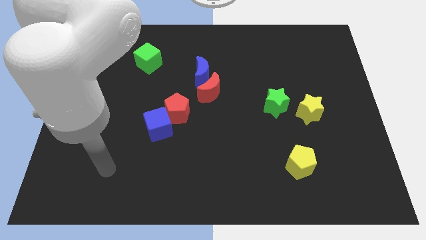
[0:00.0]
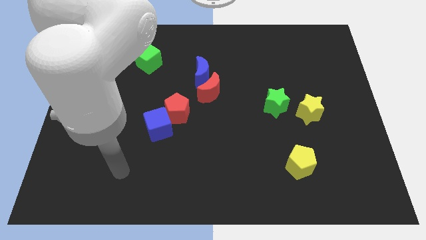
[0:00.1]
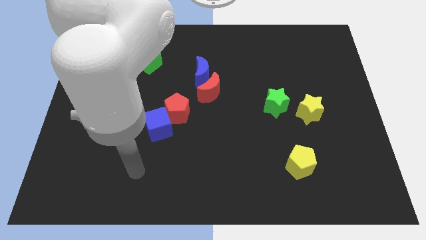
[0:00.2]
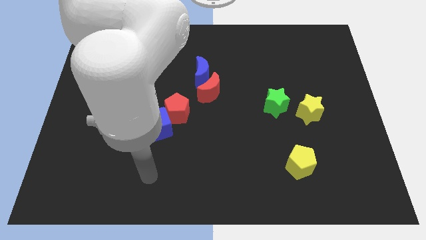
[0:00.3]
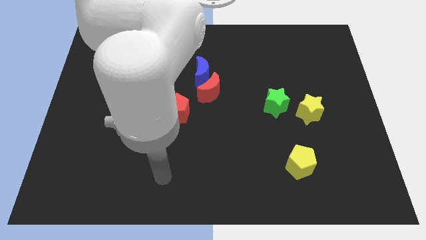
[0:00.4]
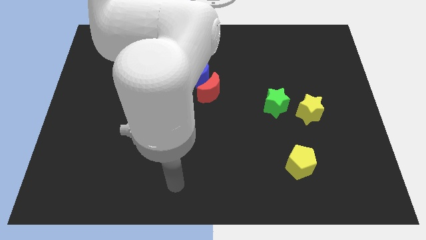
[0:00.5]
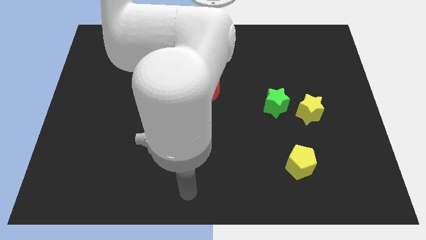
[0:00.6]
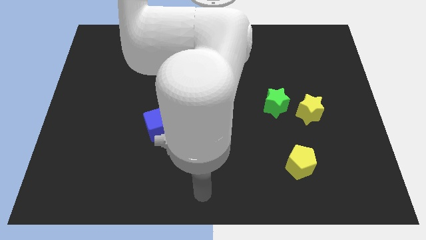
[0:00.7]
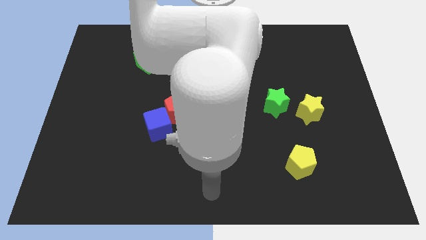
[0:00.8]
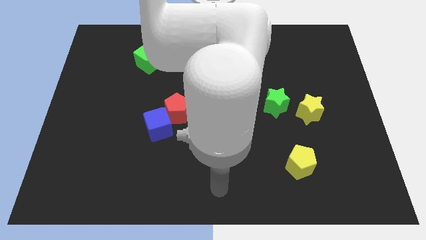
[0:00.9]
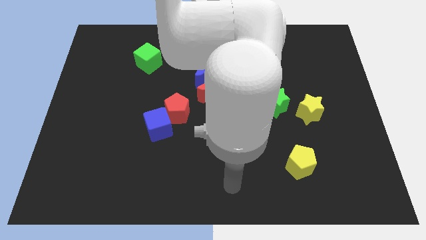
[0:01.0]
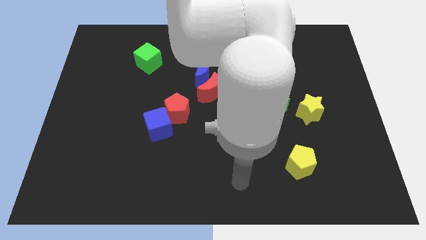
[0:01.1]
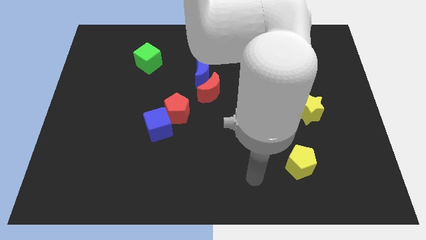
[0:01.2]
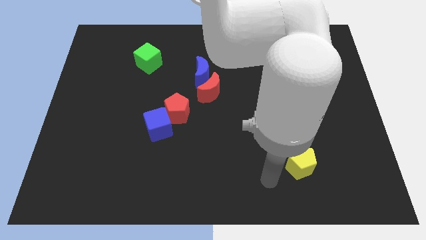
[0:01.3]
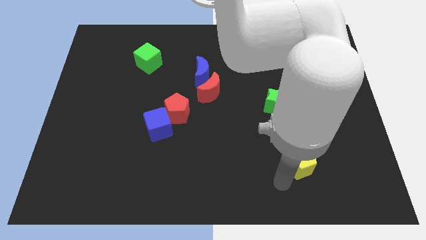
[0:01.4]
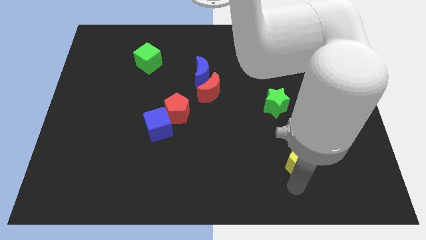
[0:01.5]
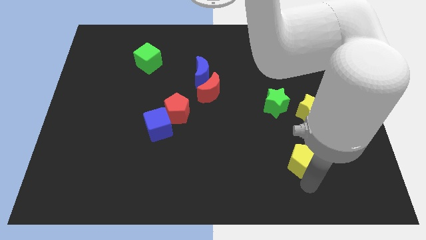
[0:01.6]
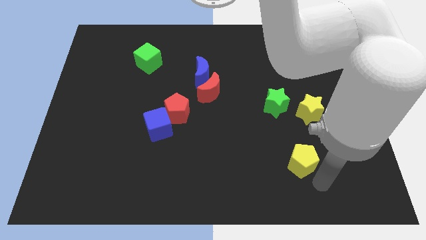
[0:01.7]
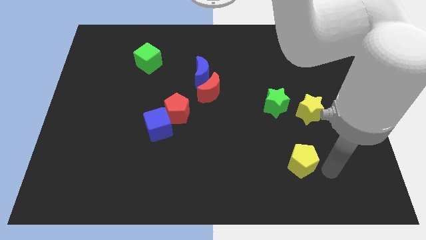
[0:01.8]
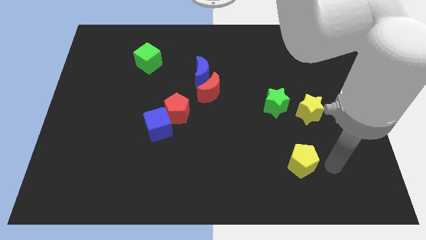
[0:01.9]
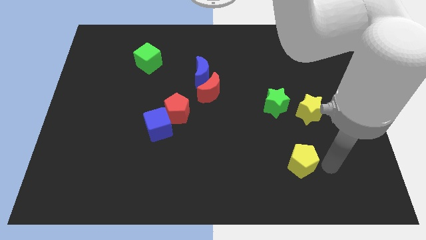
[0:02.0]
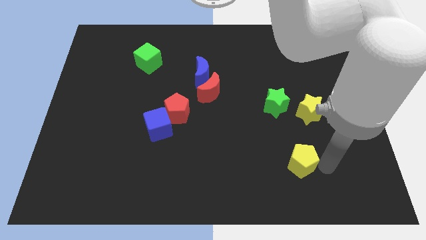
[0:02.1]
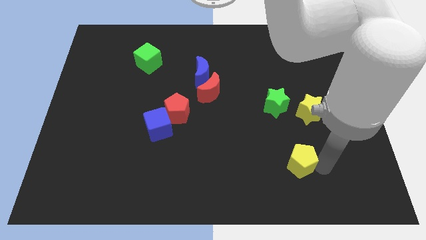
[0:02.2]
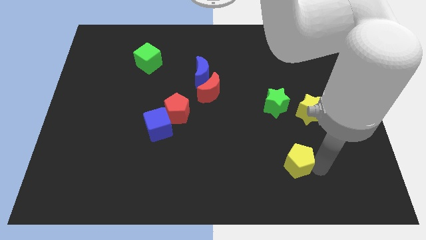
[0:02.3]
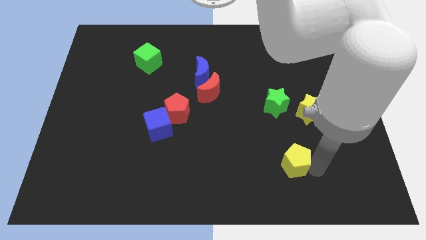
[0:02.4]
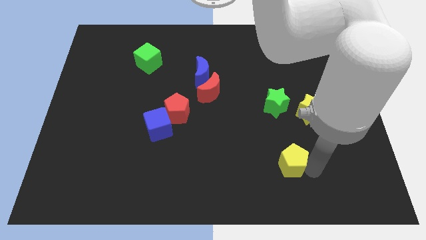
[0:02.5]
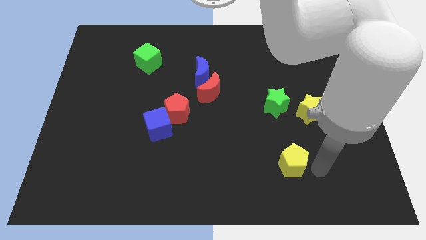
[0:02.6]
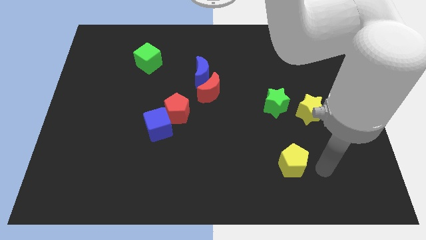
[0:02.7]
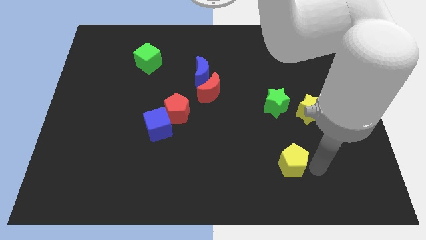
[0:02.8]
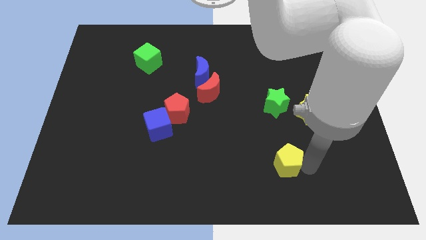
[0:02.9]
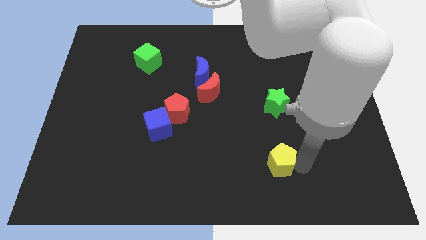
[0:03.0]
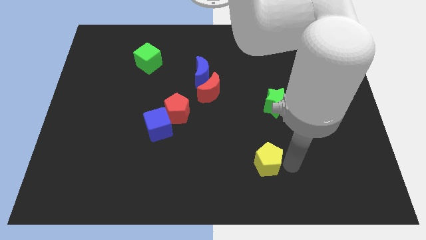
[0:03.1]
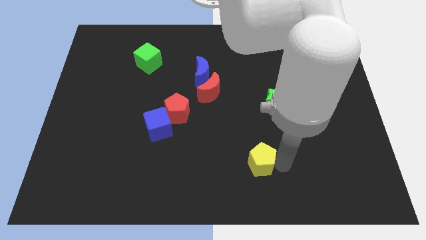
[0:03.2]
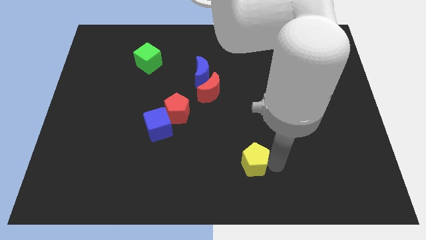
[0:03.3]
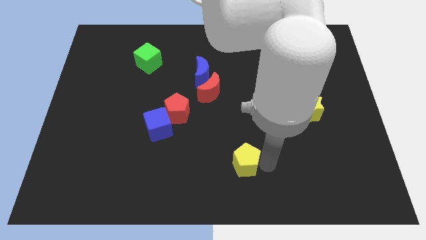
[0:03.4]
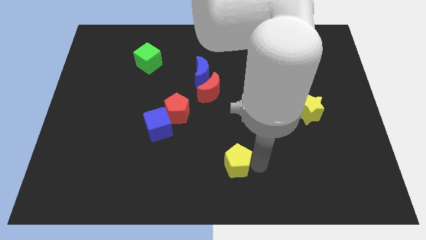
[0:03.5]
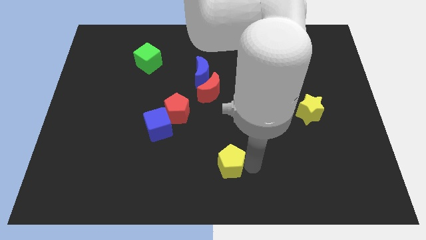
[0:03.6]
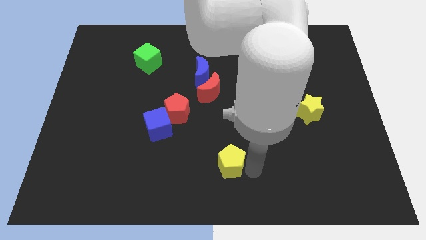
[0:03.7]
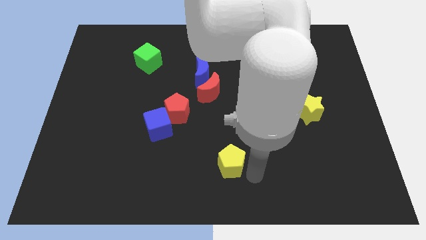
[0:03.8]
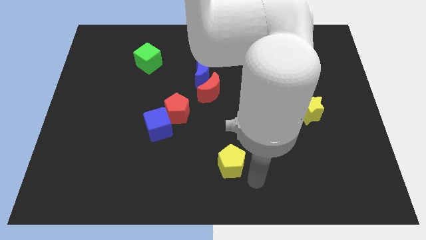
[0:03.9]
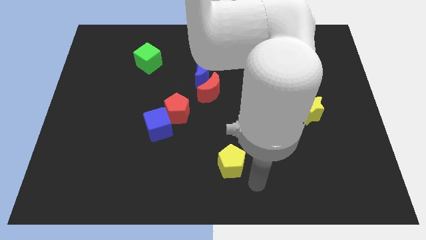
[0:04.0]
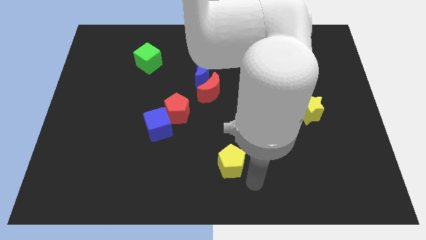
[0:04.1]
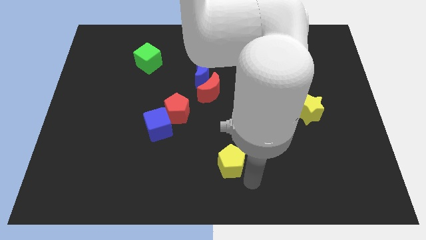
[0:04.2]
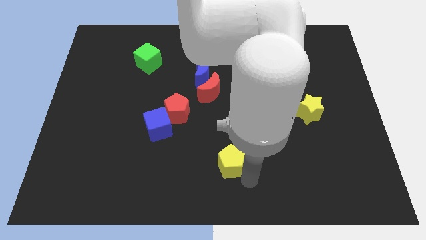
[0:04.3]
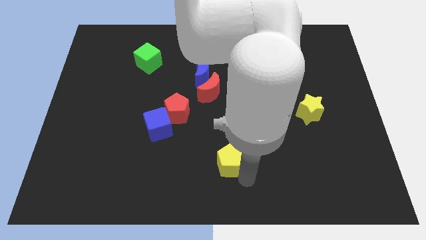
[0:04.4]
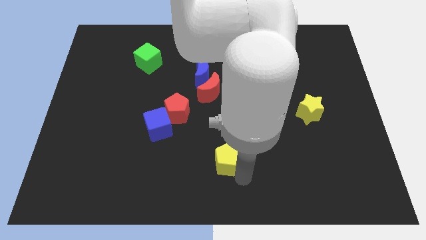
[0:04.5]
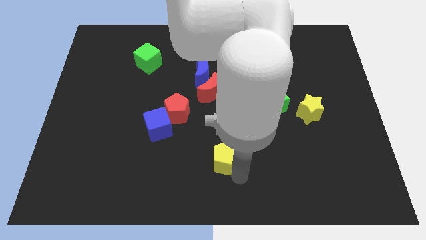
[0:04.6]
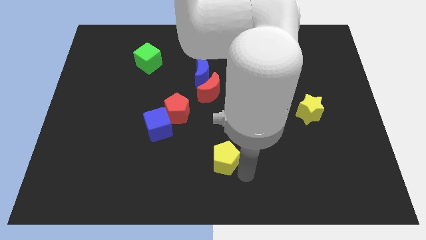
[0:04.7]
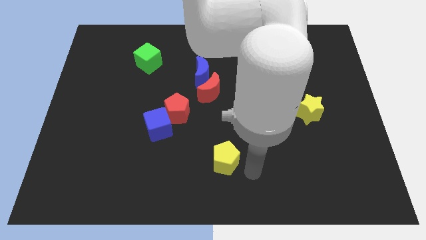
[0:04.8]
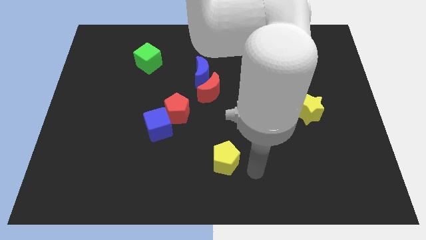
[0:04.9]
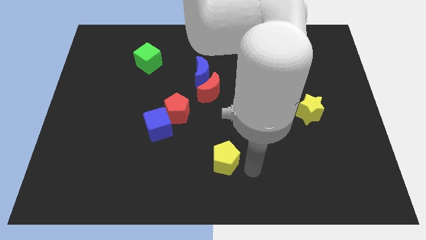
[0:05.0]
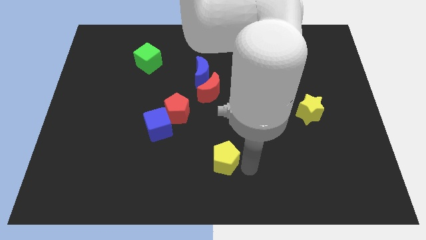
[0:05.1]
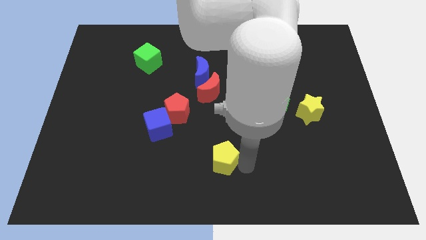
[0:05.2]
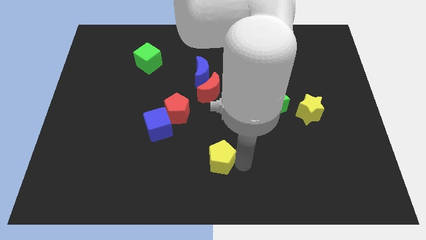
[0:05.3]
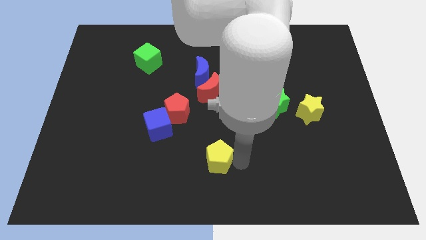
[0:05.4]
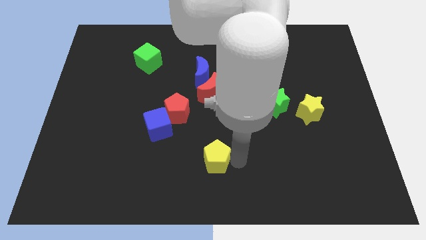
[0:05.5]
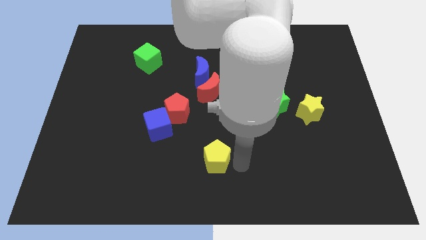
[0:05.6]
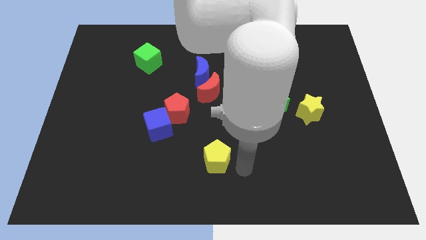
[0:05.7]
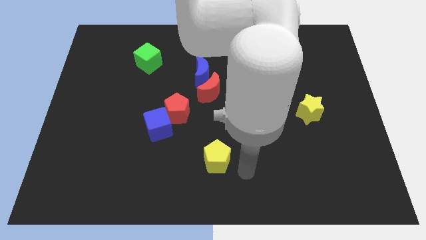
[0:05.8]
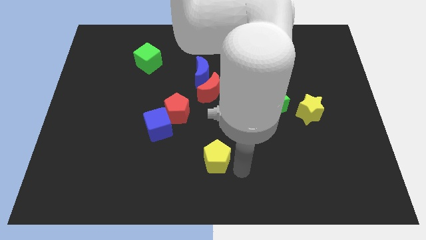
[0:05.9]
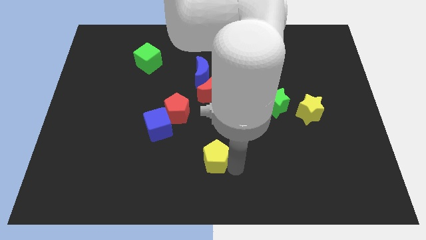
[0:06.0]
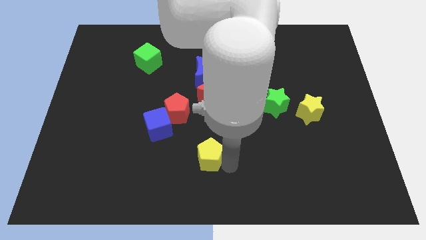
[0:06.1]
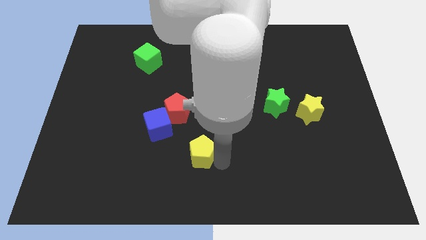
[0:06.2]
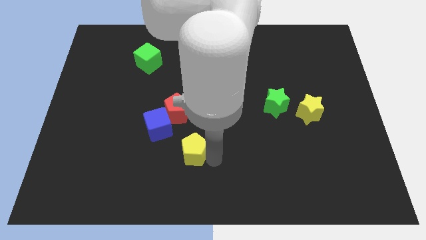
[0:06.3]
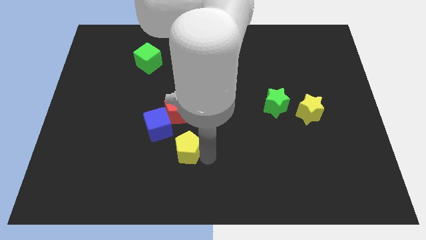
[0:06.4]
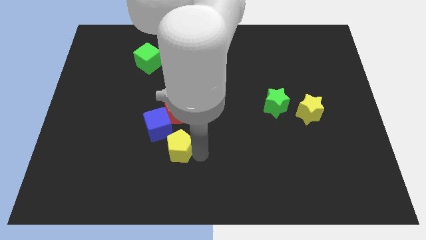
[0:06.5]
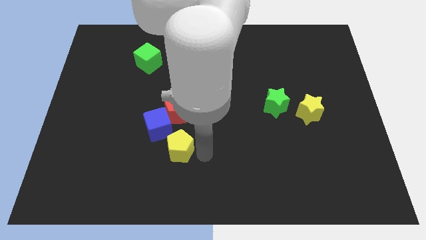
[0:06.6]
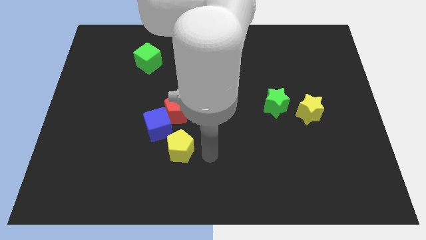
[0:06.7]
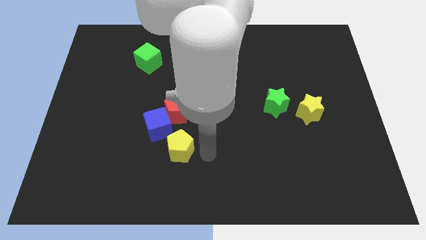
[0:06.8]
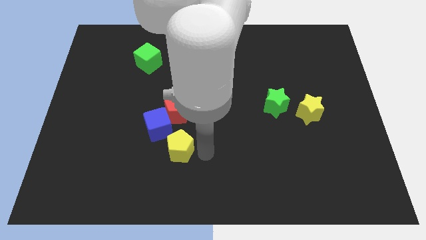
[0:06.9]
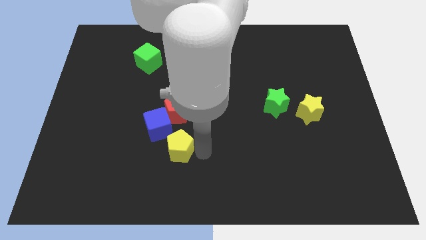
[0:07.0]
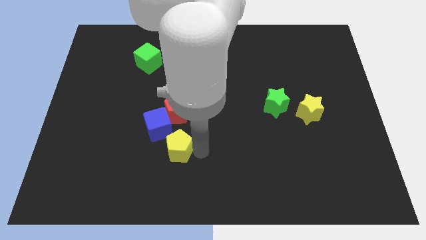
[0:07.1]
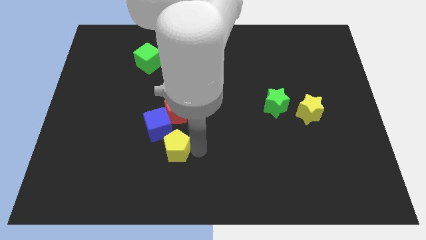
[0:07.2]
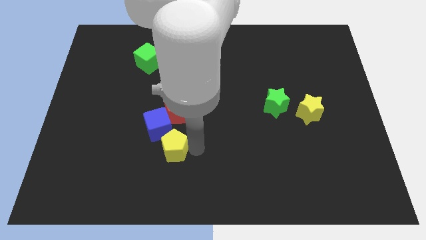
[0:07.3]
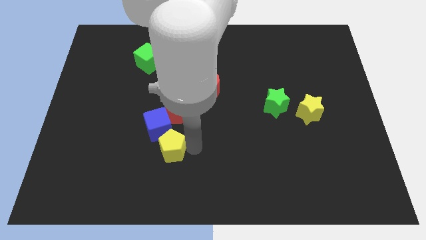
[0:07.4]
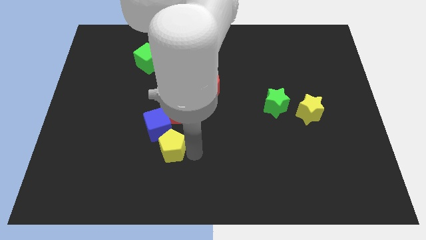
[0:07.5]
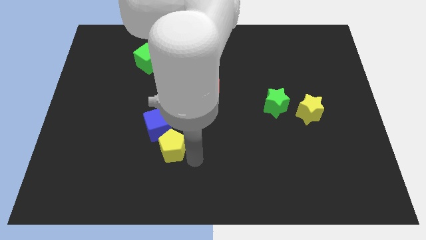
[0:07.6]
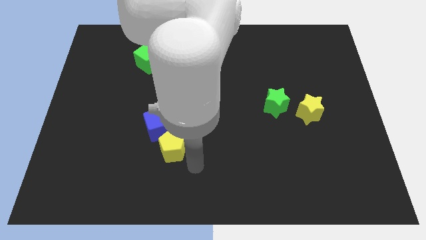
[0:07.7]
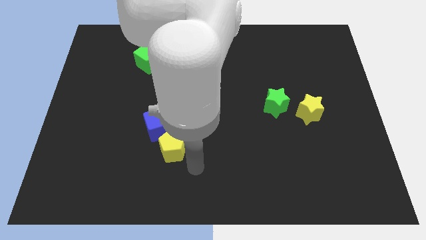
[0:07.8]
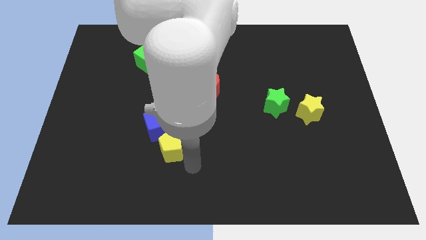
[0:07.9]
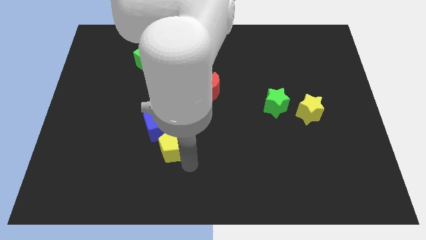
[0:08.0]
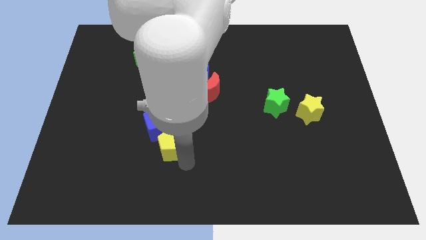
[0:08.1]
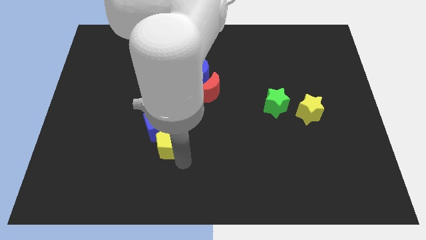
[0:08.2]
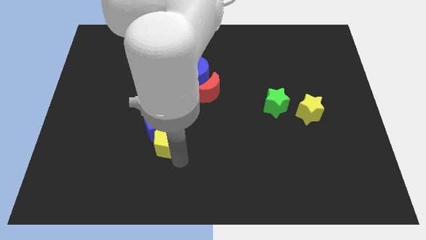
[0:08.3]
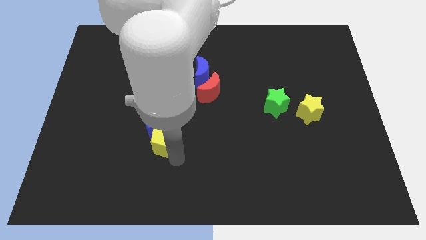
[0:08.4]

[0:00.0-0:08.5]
move the yellow pentagon to the bottom left side of the red pentagon
